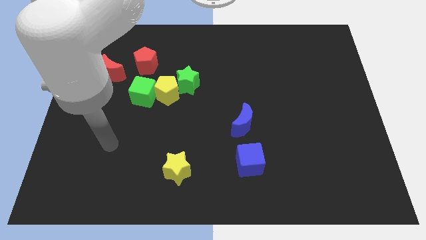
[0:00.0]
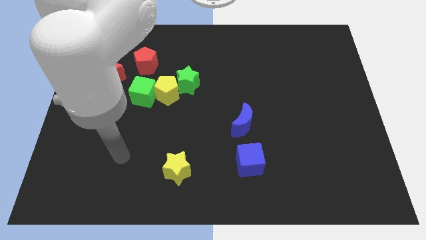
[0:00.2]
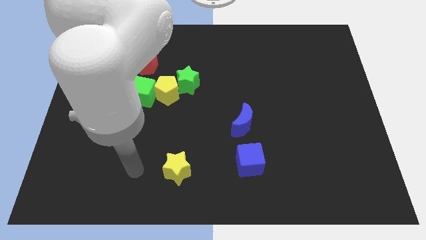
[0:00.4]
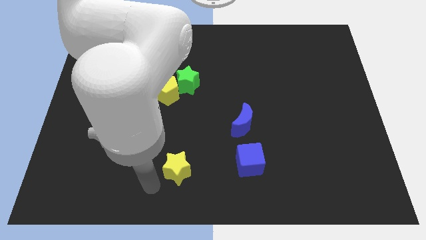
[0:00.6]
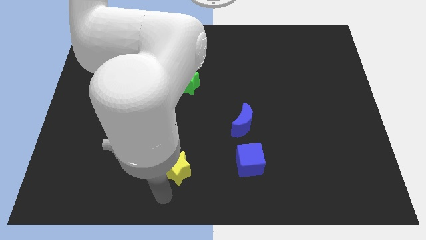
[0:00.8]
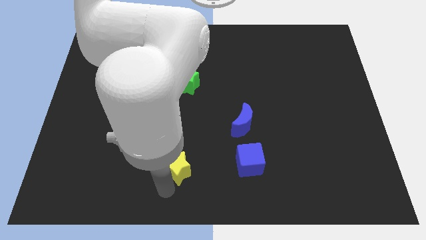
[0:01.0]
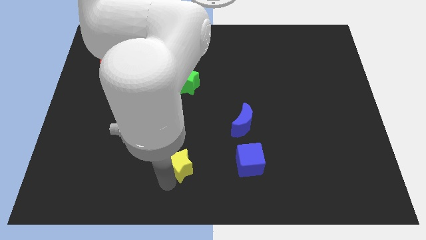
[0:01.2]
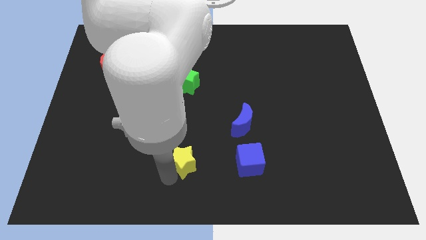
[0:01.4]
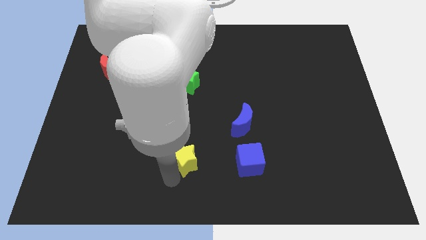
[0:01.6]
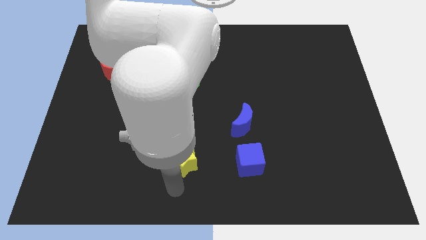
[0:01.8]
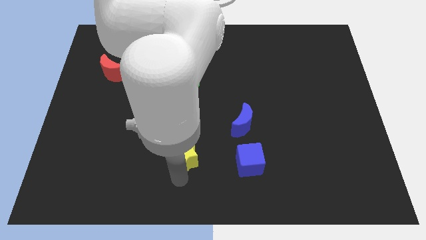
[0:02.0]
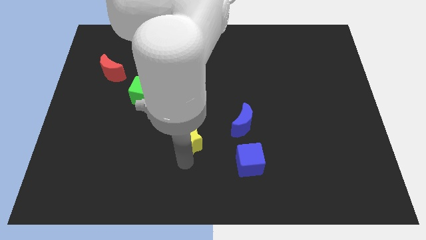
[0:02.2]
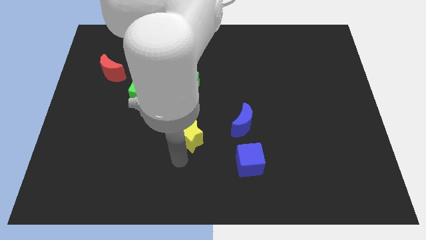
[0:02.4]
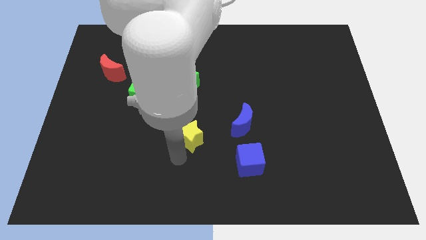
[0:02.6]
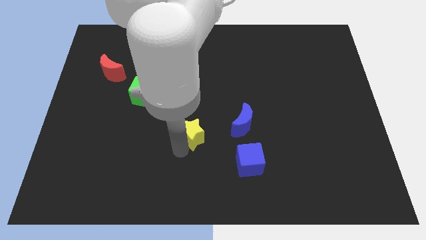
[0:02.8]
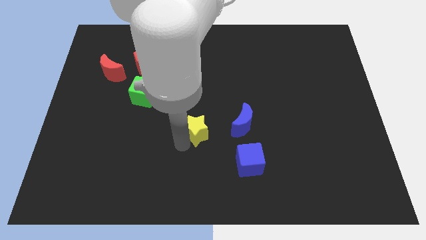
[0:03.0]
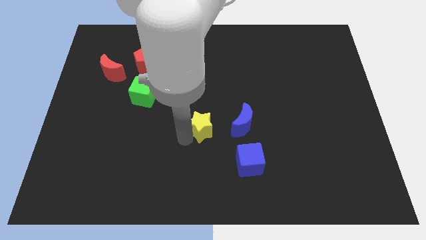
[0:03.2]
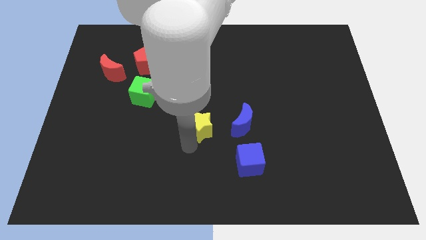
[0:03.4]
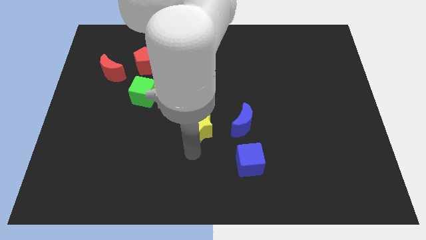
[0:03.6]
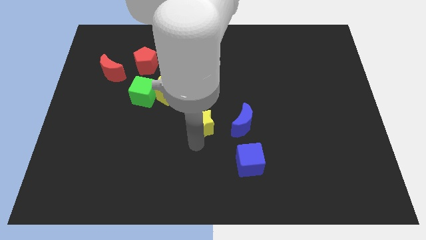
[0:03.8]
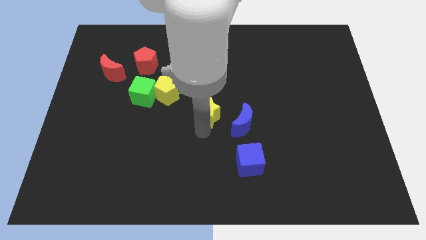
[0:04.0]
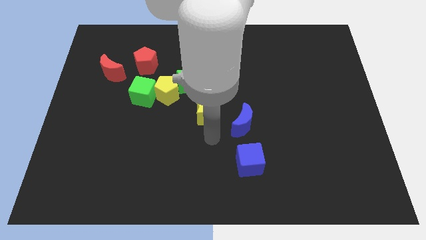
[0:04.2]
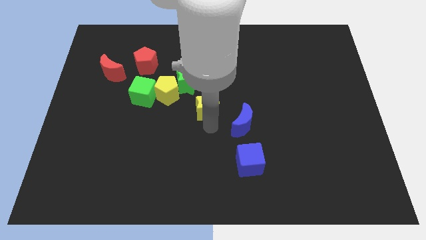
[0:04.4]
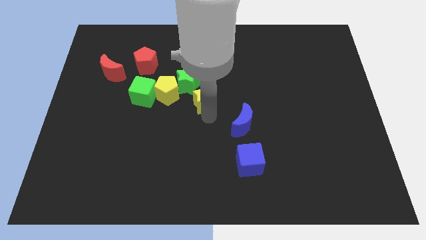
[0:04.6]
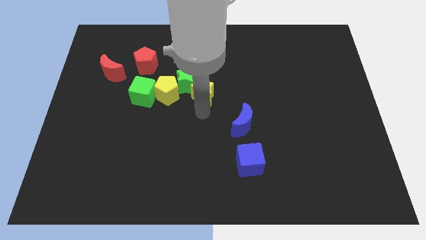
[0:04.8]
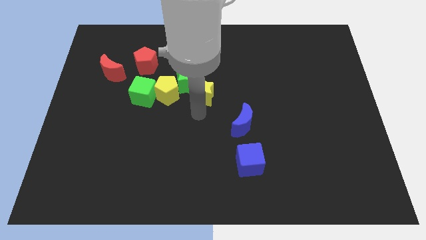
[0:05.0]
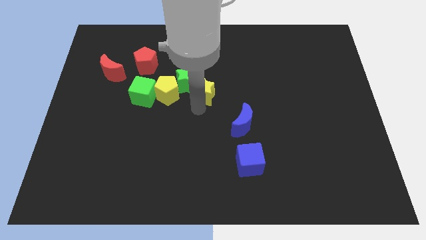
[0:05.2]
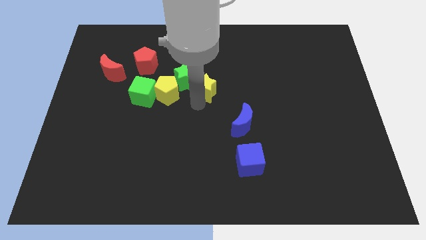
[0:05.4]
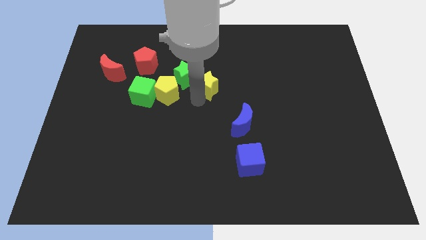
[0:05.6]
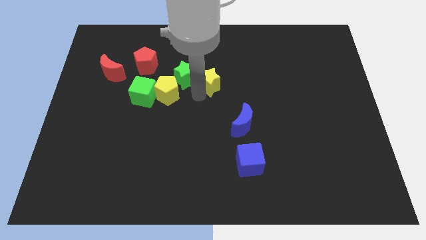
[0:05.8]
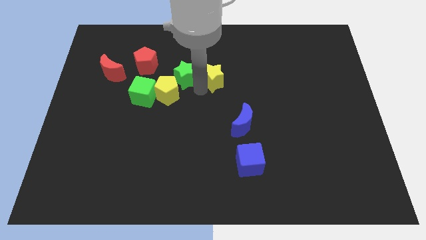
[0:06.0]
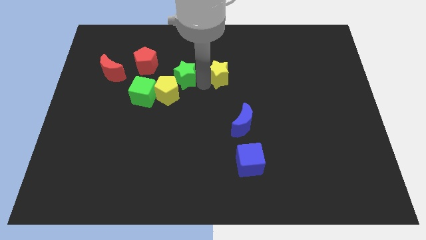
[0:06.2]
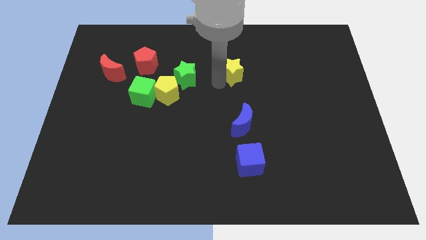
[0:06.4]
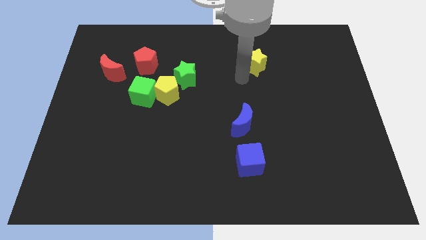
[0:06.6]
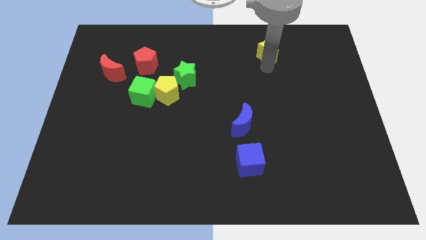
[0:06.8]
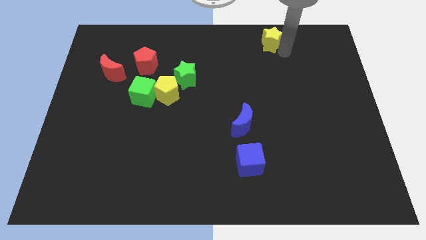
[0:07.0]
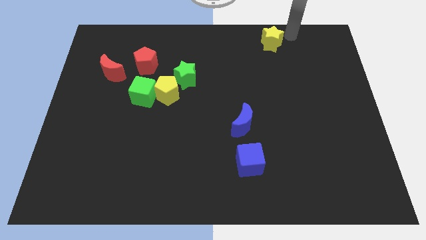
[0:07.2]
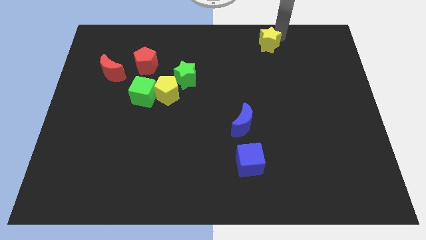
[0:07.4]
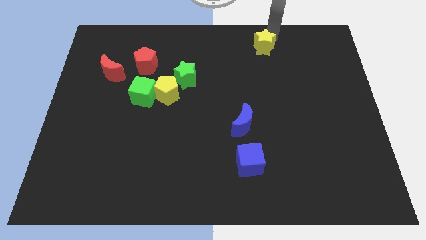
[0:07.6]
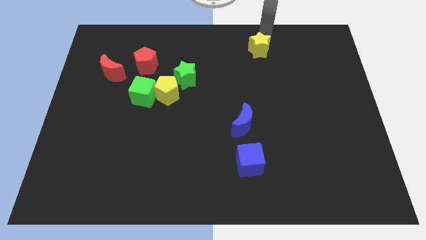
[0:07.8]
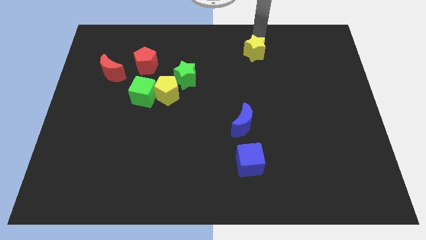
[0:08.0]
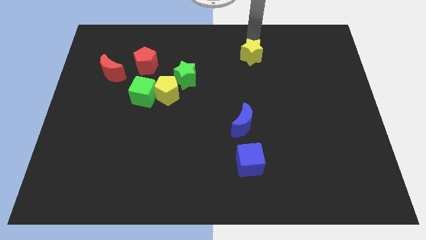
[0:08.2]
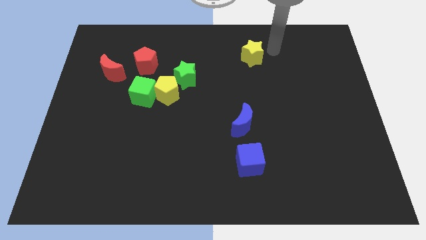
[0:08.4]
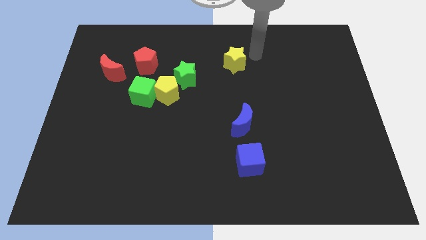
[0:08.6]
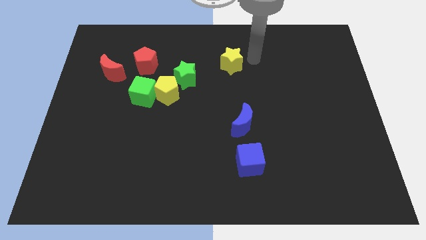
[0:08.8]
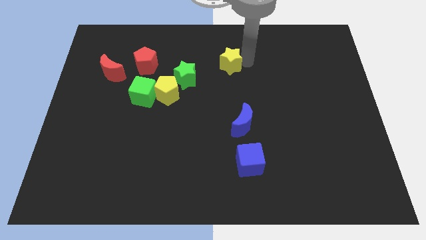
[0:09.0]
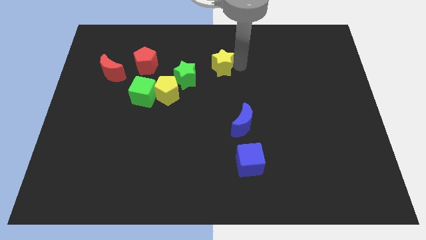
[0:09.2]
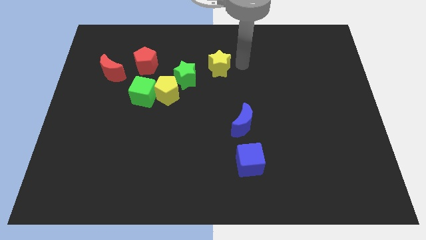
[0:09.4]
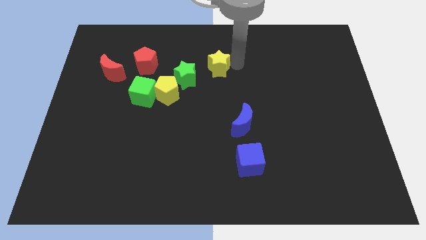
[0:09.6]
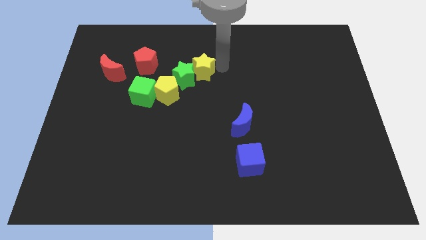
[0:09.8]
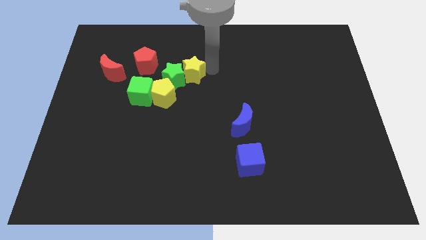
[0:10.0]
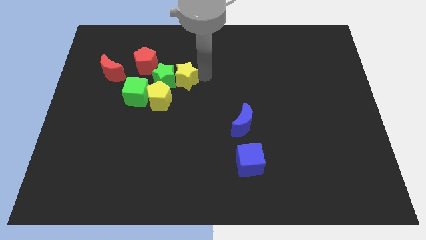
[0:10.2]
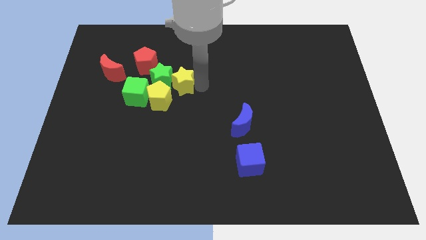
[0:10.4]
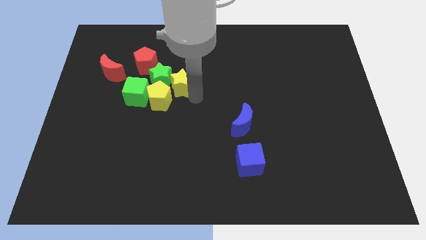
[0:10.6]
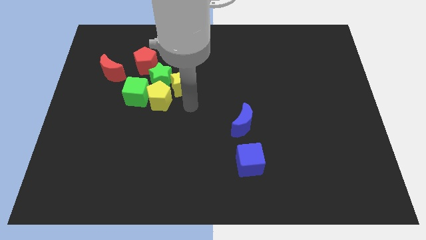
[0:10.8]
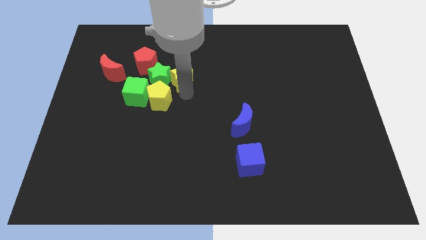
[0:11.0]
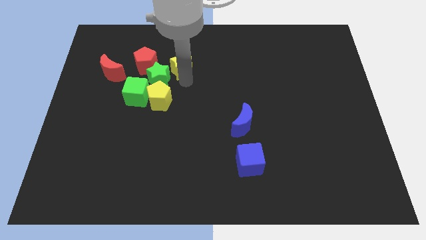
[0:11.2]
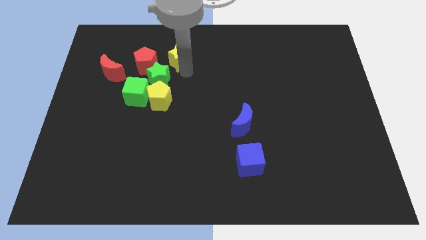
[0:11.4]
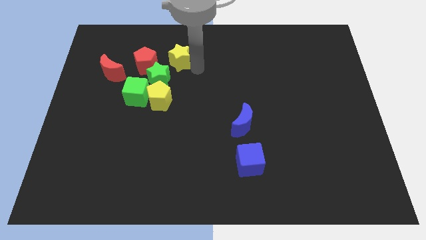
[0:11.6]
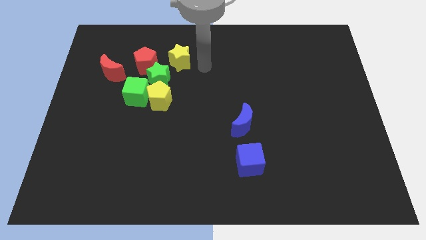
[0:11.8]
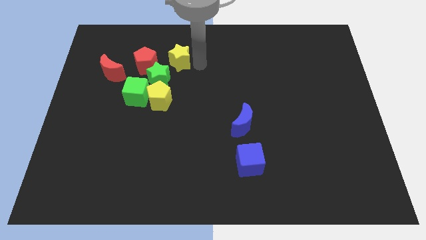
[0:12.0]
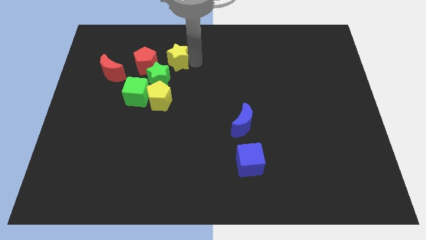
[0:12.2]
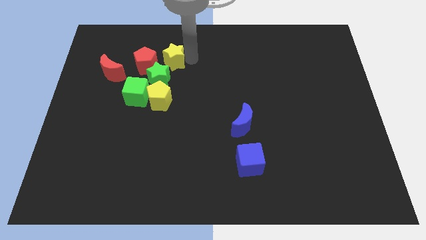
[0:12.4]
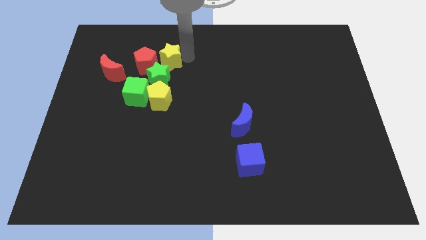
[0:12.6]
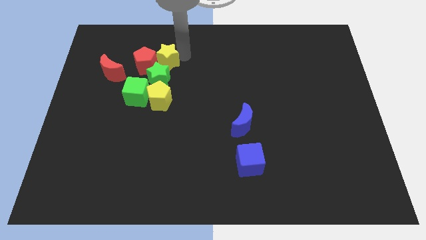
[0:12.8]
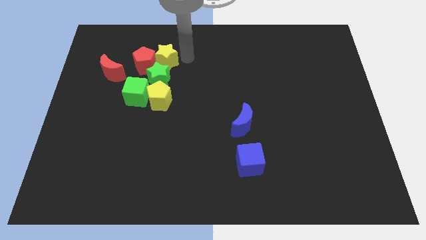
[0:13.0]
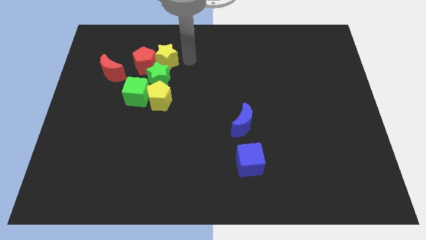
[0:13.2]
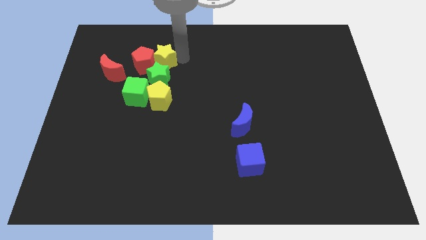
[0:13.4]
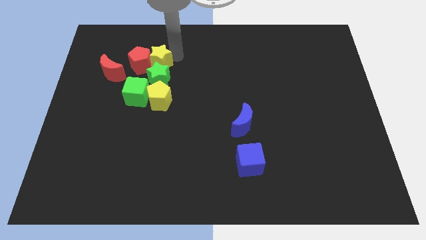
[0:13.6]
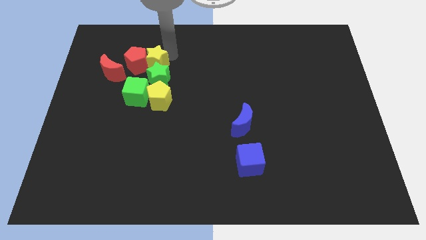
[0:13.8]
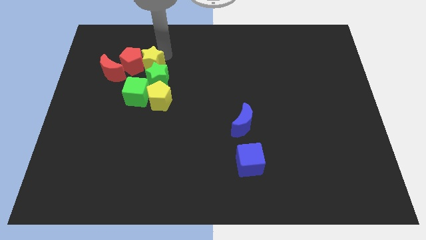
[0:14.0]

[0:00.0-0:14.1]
push the yellow star to the top right of the red moon
